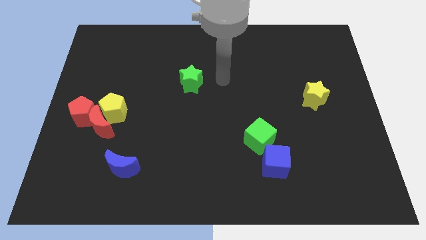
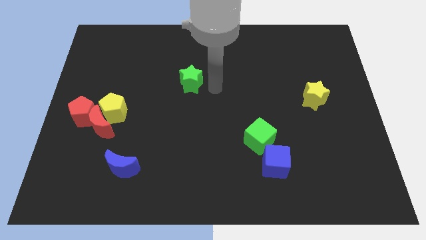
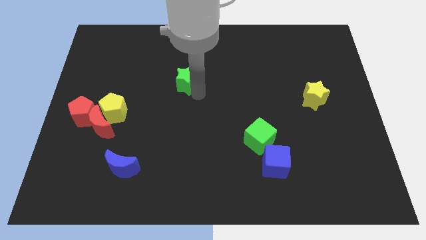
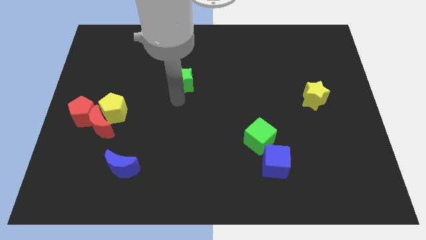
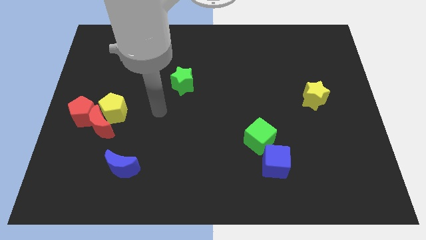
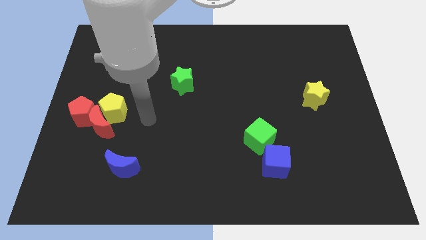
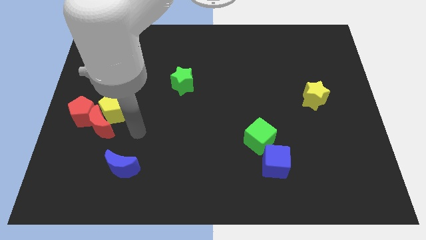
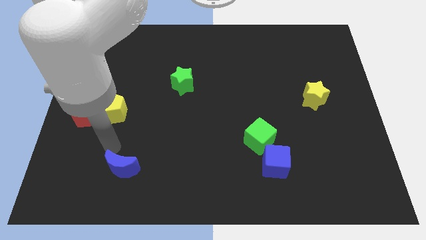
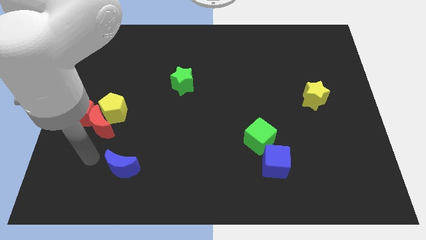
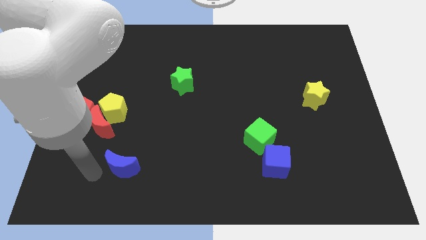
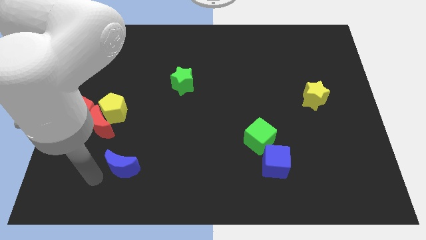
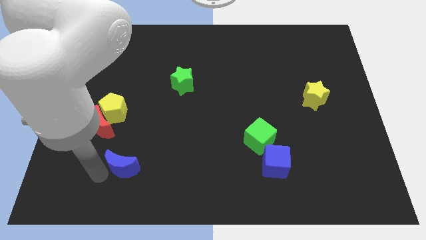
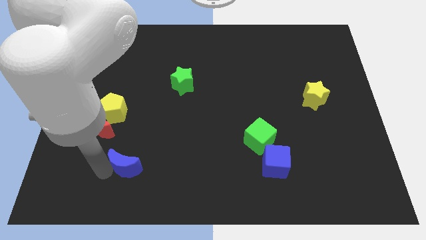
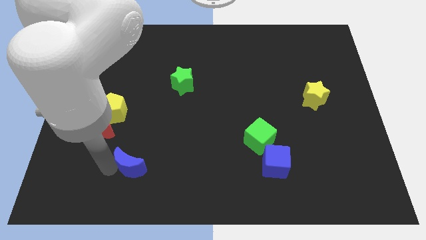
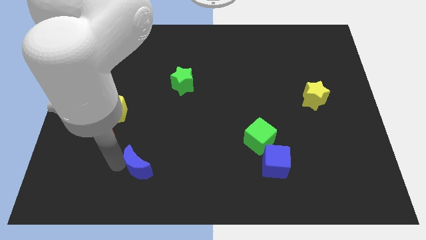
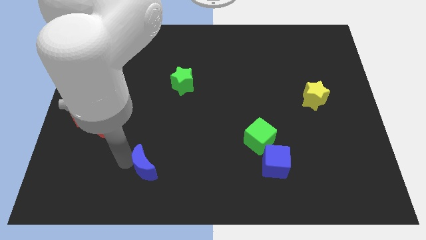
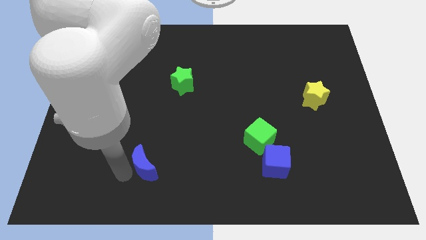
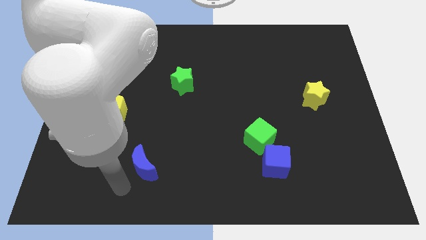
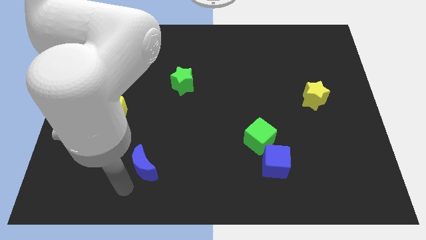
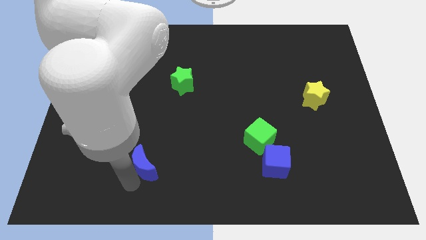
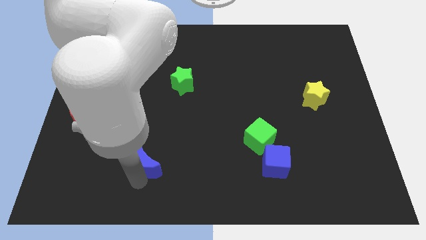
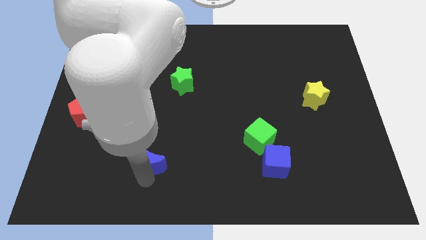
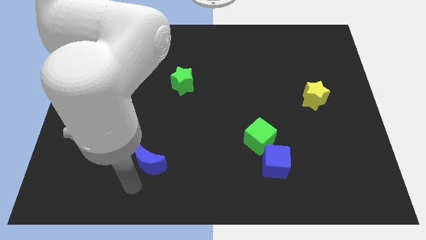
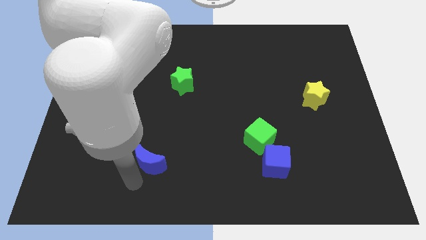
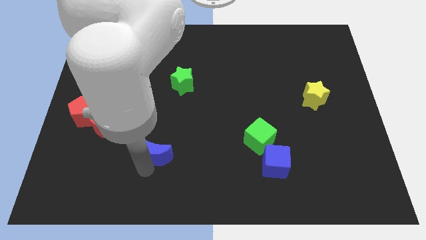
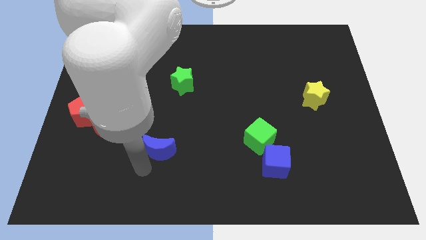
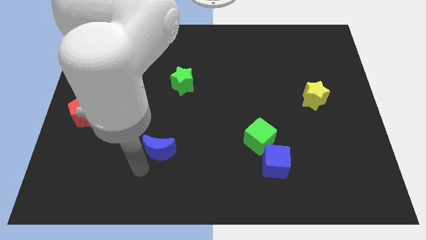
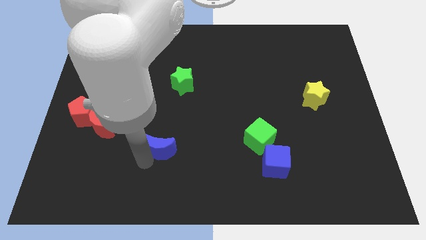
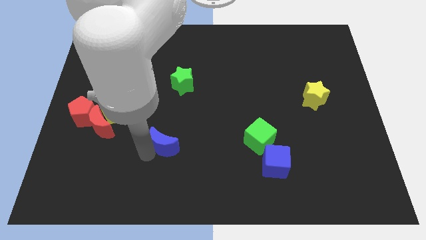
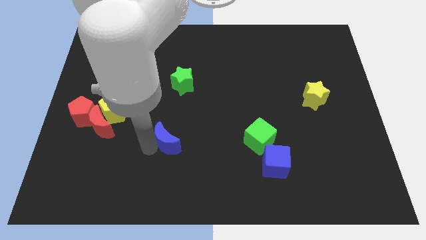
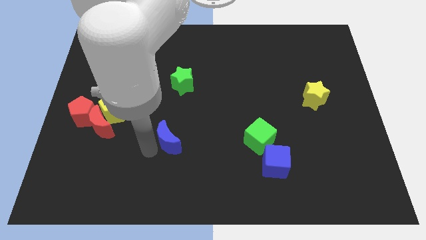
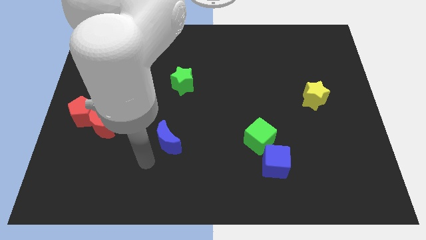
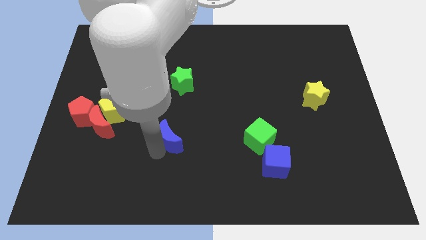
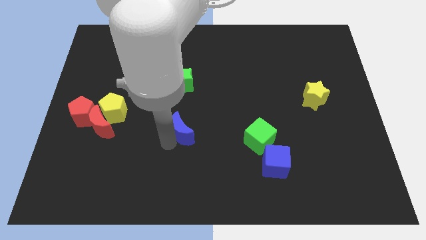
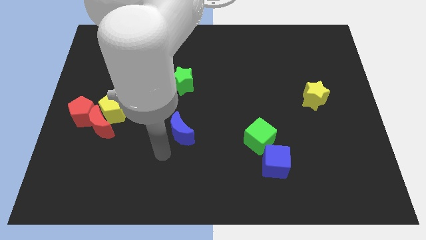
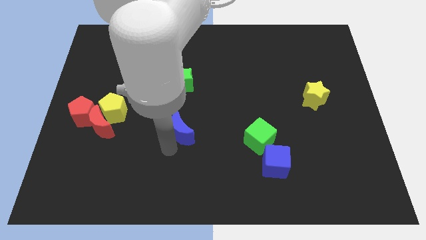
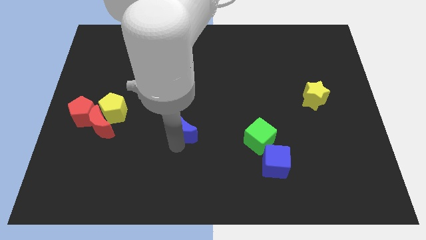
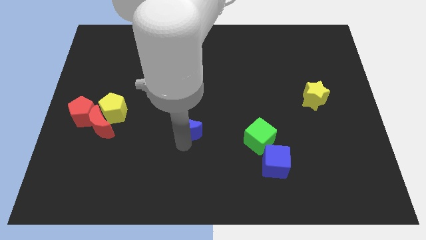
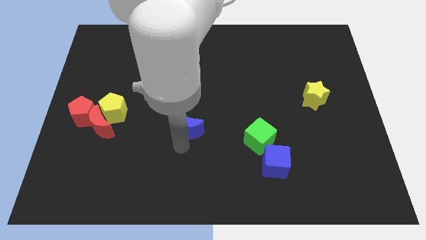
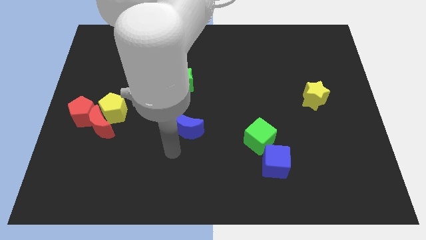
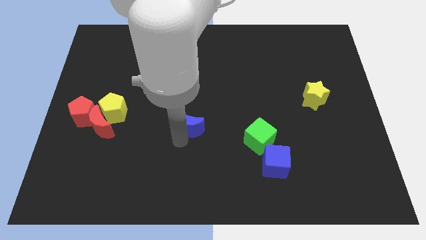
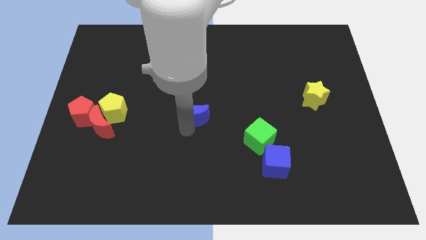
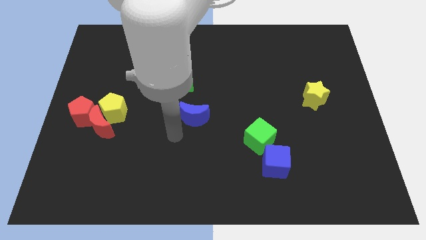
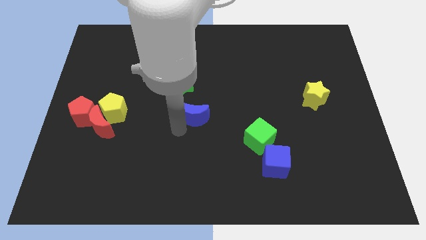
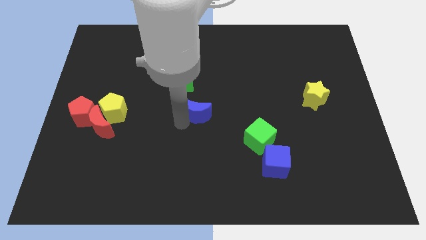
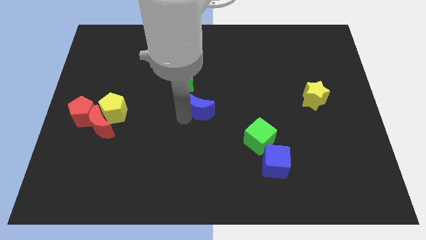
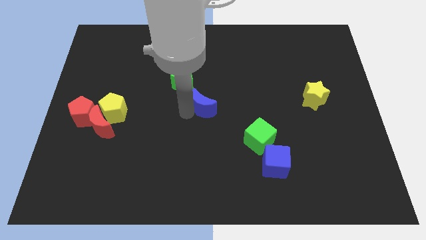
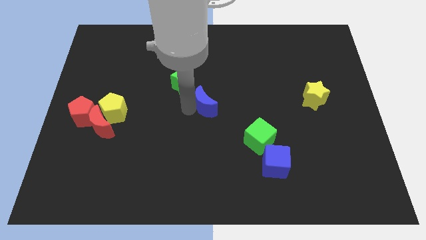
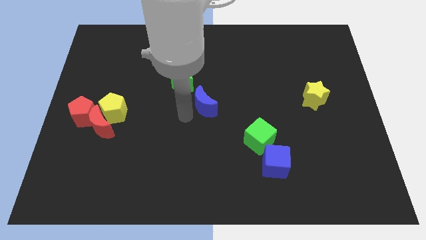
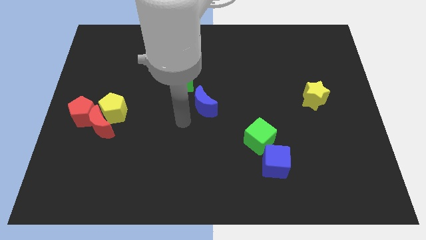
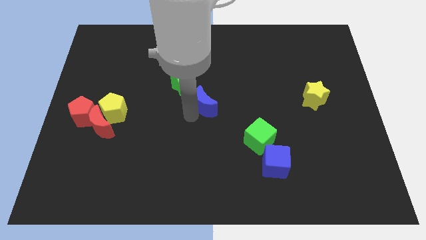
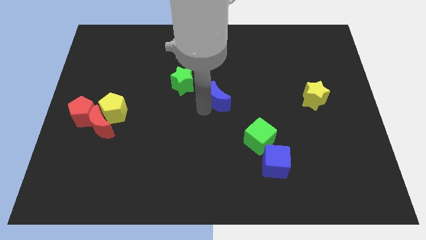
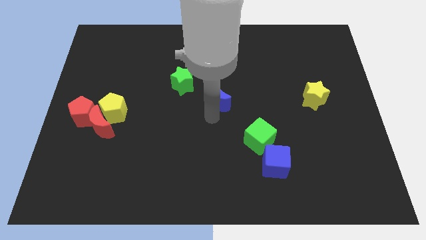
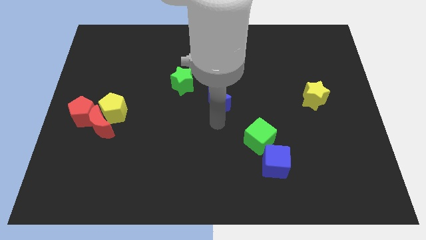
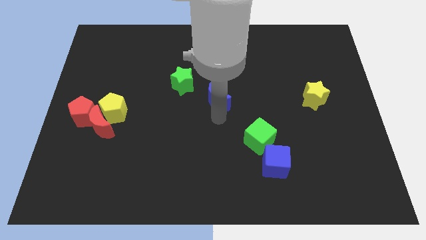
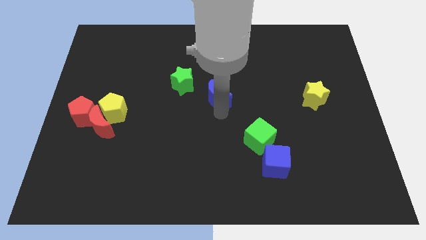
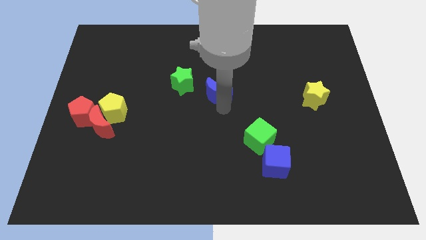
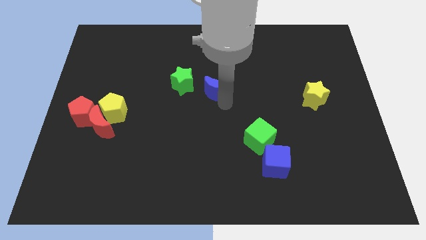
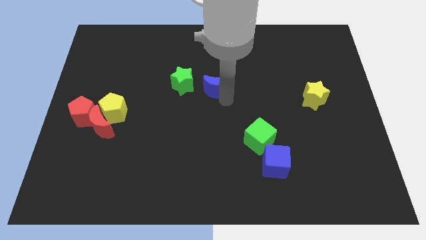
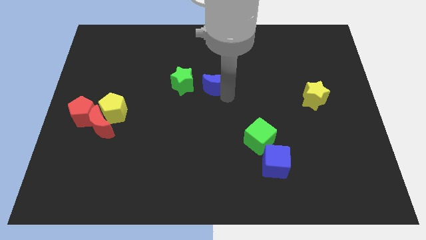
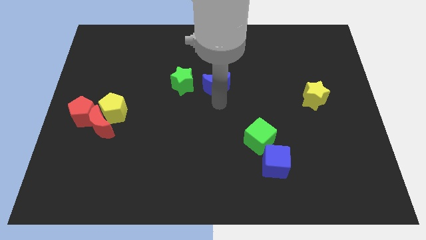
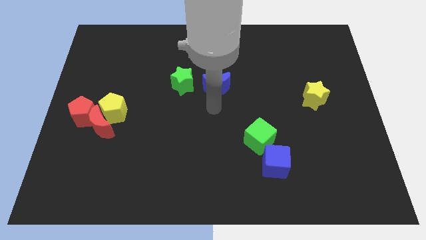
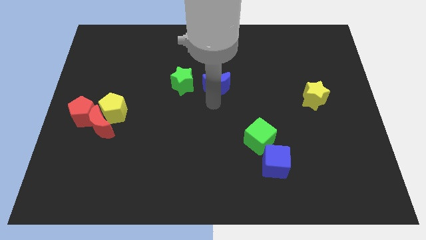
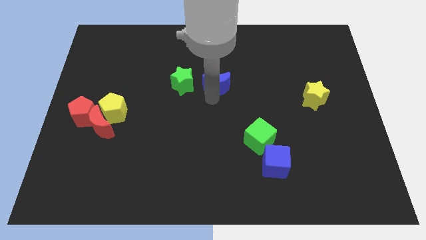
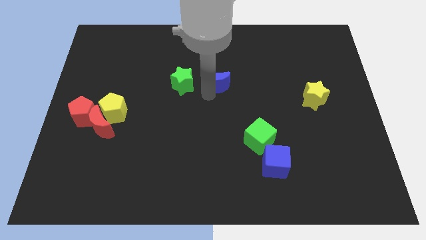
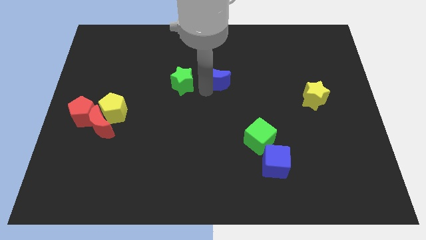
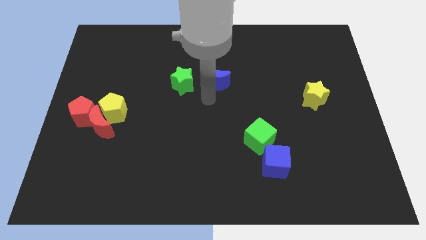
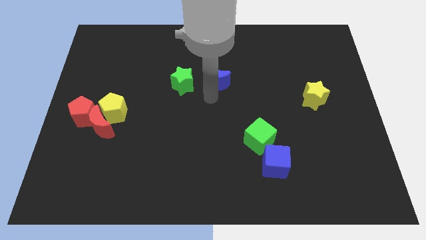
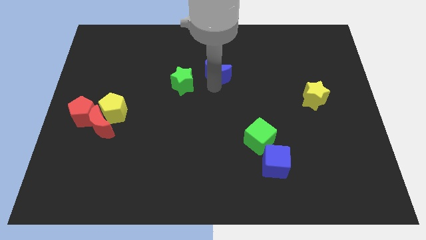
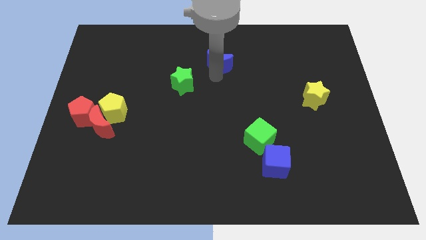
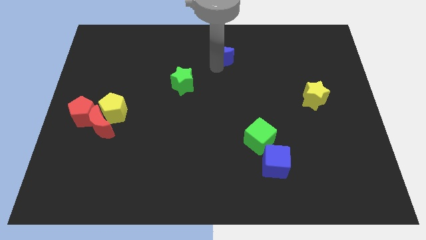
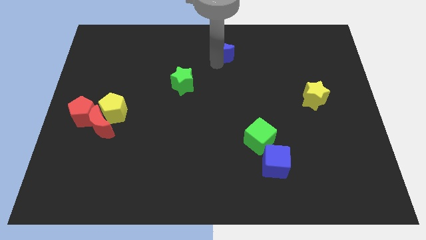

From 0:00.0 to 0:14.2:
move the blue moon to the top side
